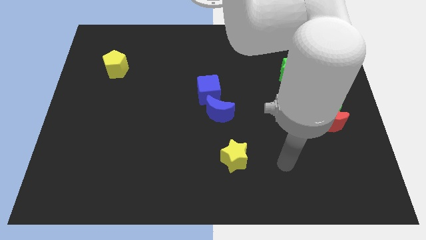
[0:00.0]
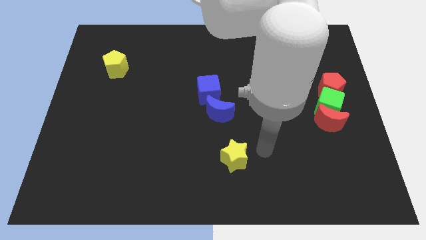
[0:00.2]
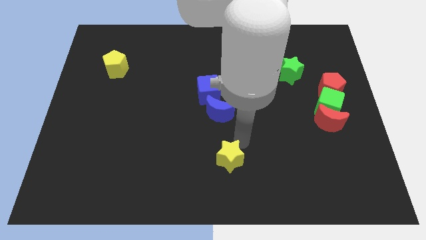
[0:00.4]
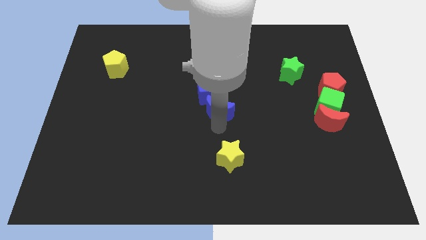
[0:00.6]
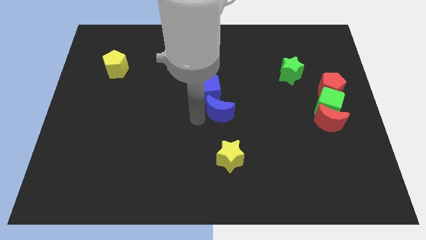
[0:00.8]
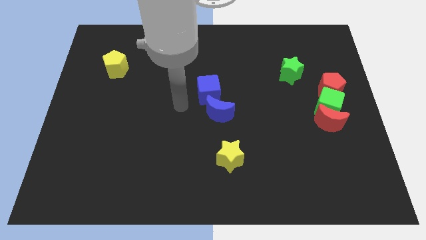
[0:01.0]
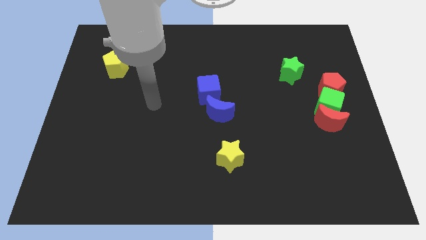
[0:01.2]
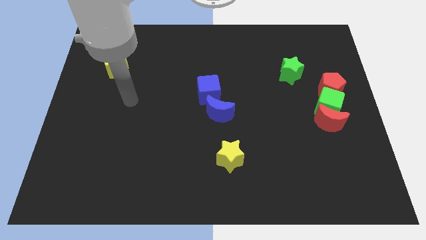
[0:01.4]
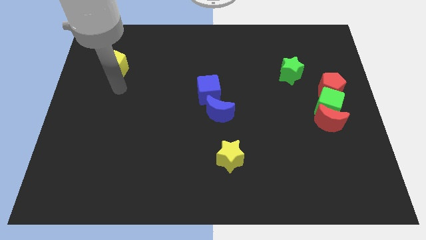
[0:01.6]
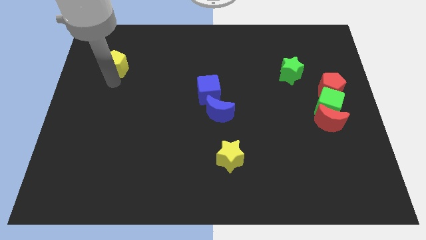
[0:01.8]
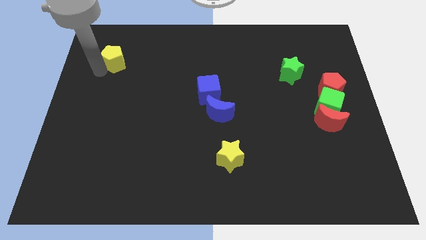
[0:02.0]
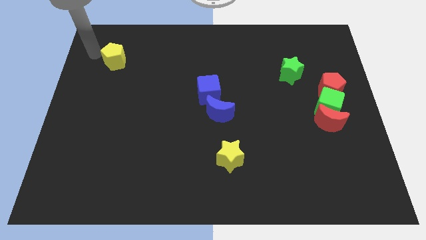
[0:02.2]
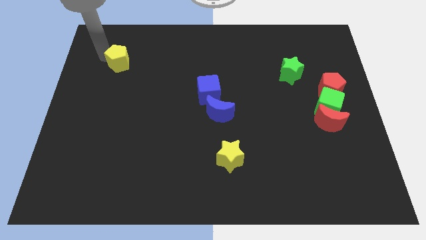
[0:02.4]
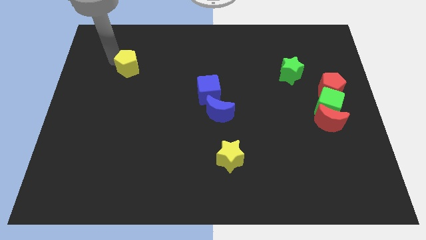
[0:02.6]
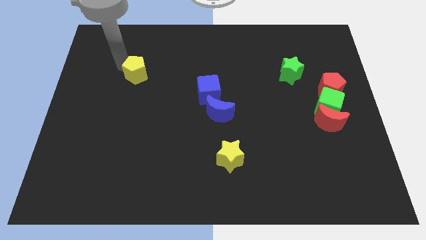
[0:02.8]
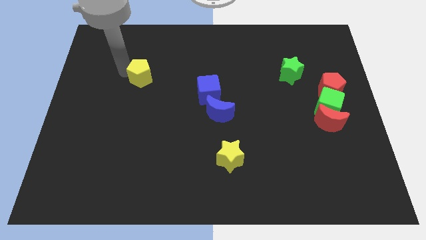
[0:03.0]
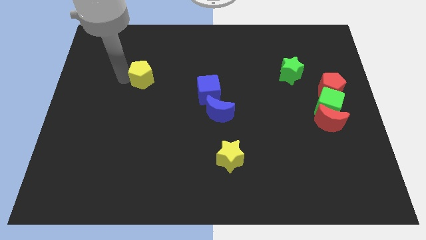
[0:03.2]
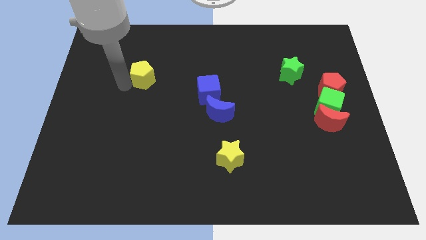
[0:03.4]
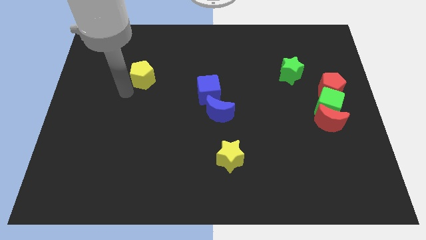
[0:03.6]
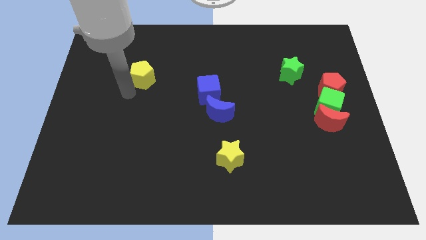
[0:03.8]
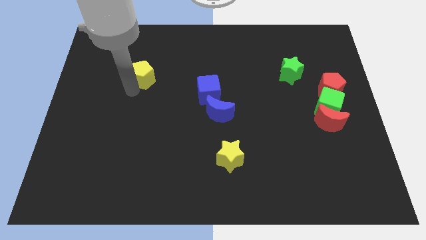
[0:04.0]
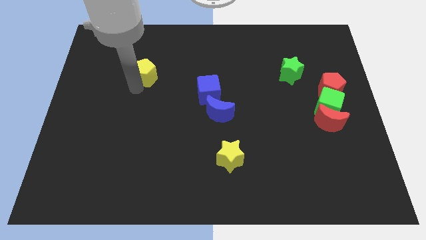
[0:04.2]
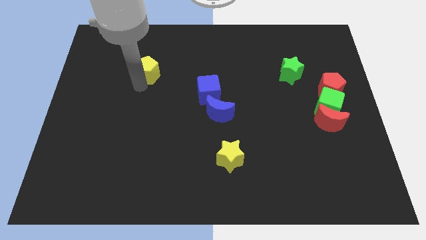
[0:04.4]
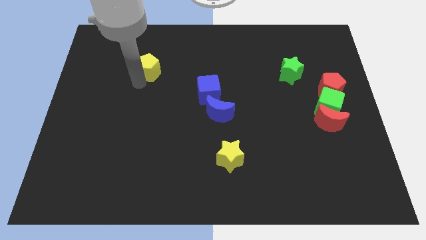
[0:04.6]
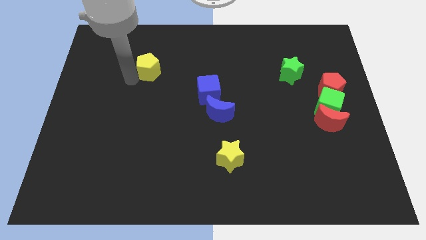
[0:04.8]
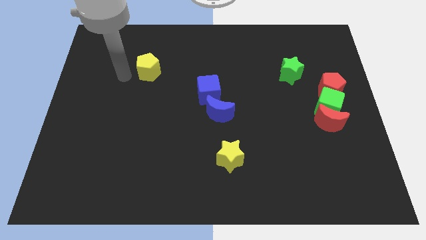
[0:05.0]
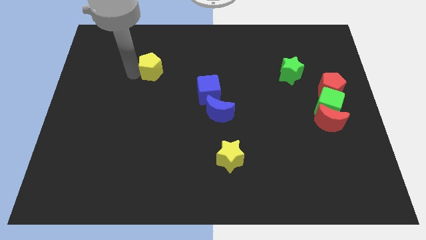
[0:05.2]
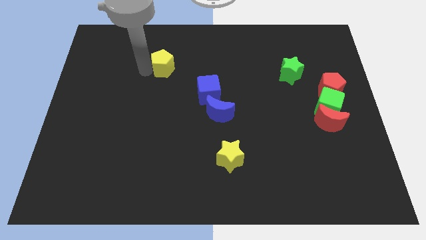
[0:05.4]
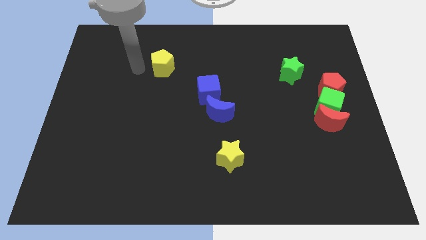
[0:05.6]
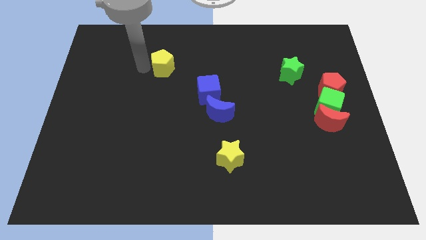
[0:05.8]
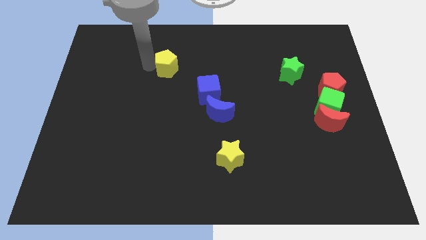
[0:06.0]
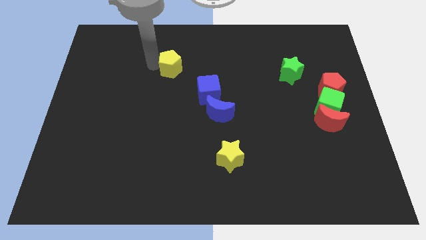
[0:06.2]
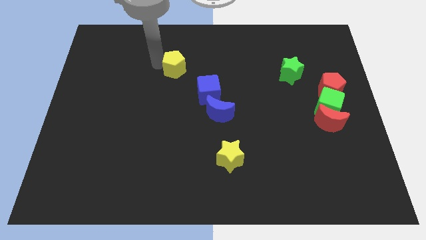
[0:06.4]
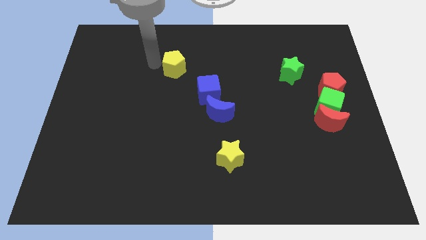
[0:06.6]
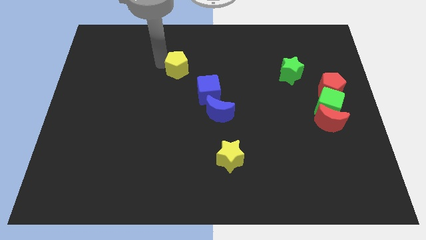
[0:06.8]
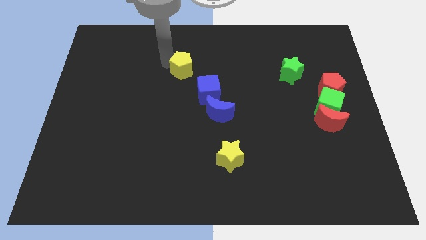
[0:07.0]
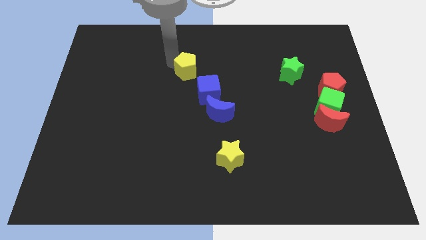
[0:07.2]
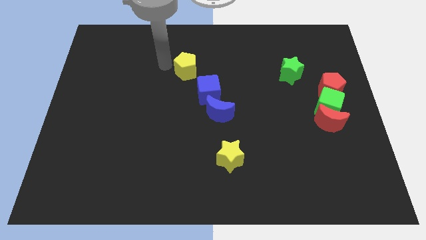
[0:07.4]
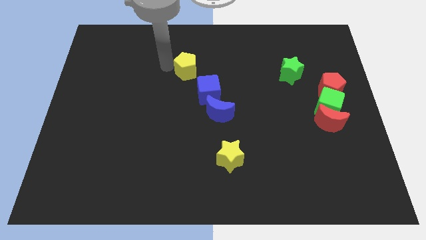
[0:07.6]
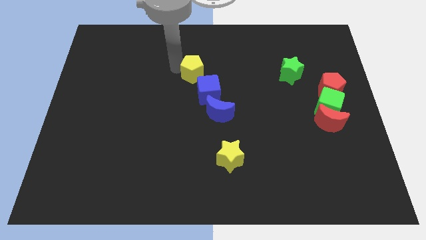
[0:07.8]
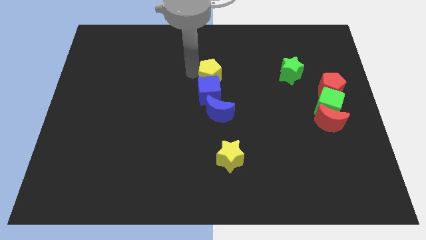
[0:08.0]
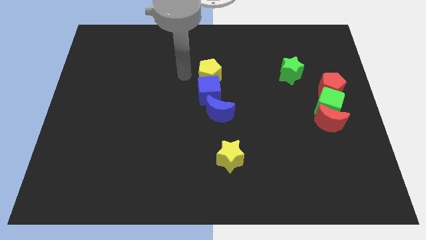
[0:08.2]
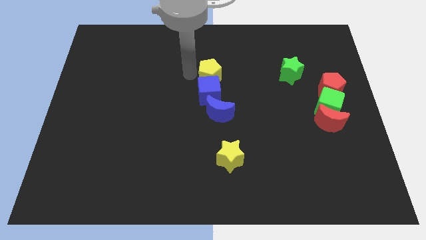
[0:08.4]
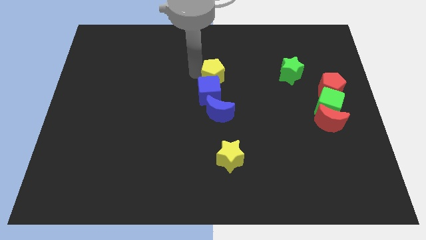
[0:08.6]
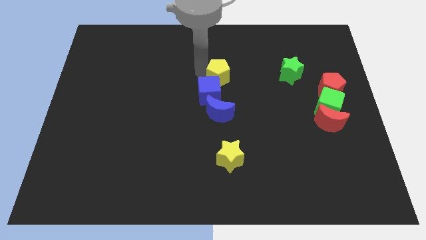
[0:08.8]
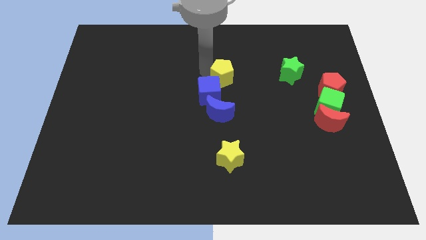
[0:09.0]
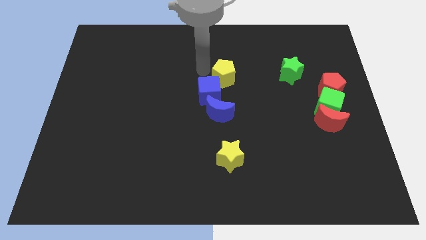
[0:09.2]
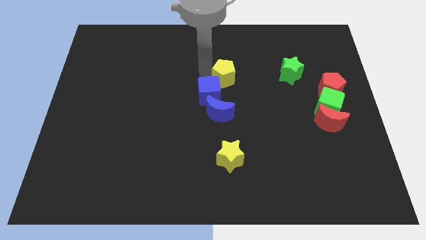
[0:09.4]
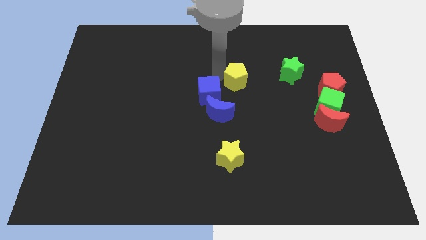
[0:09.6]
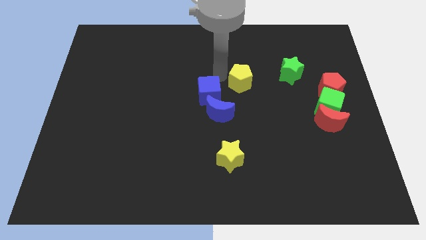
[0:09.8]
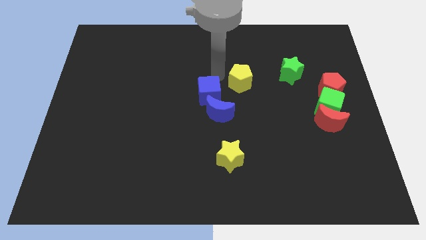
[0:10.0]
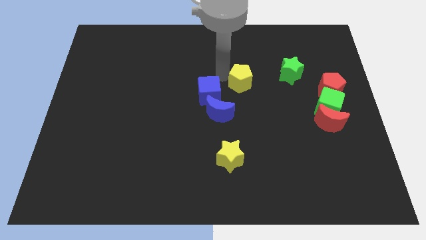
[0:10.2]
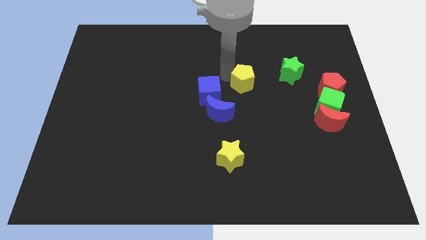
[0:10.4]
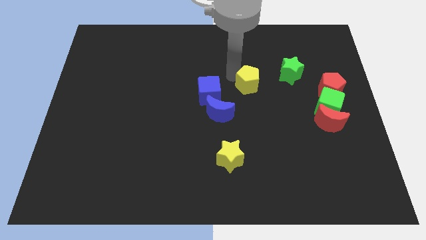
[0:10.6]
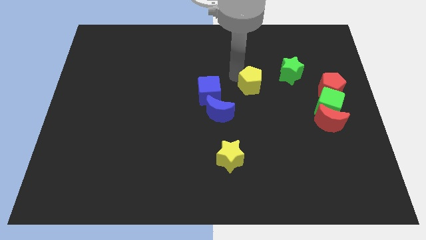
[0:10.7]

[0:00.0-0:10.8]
move the yellow pentagon to the bottom left side of the green star

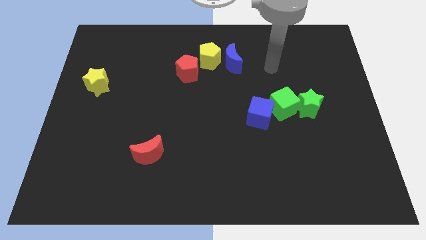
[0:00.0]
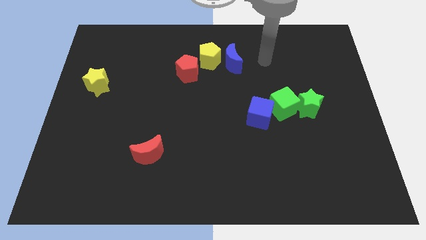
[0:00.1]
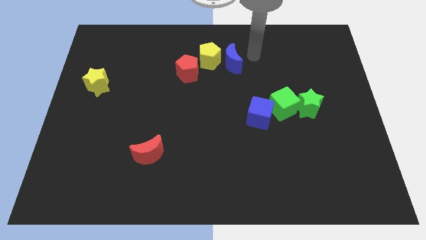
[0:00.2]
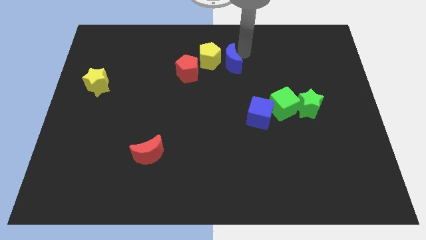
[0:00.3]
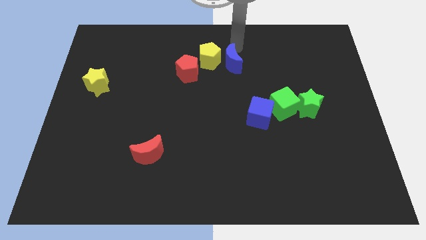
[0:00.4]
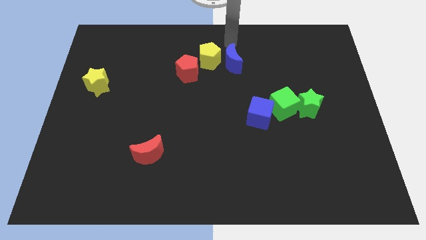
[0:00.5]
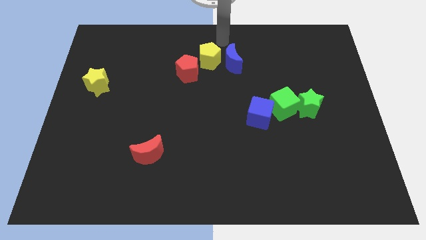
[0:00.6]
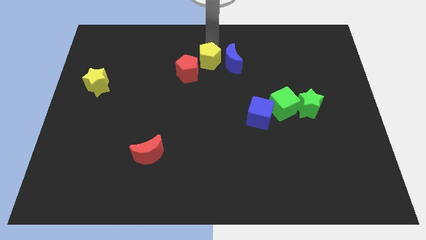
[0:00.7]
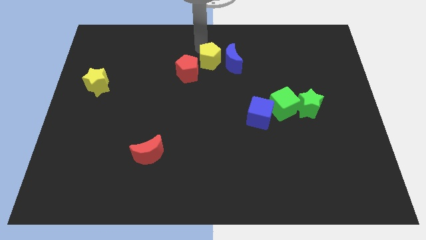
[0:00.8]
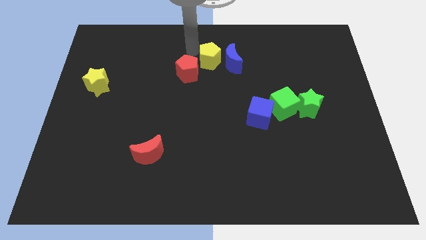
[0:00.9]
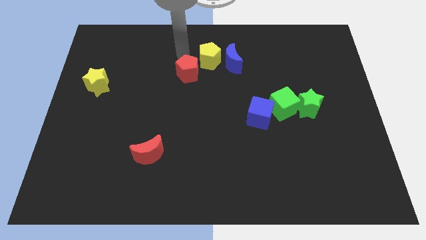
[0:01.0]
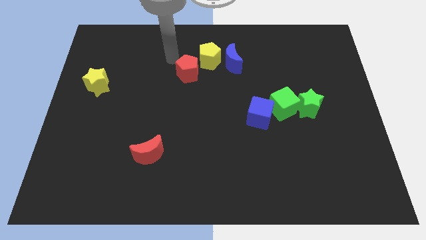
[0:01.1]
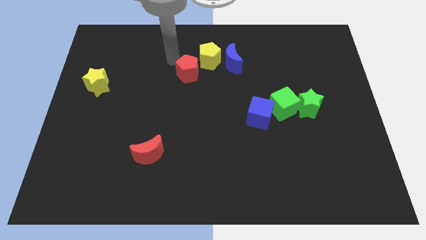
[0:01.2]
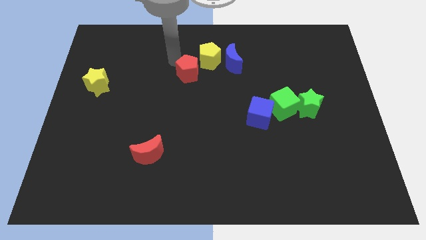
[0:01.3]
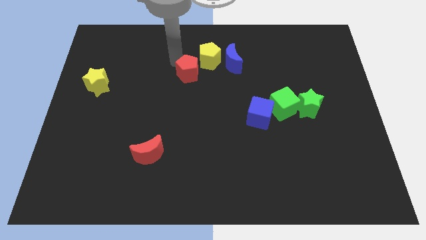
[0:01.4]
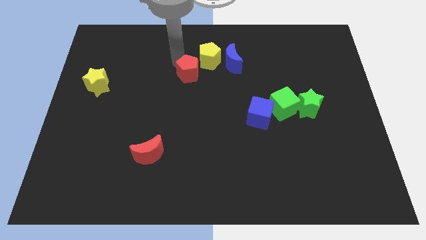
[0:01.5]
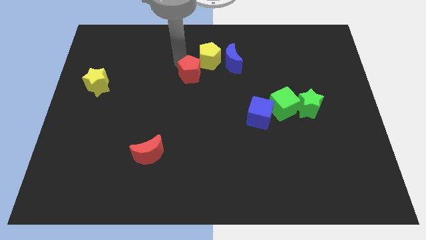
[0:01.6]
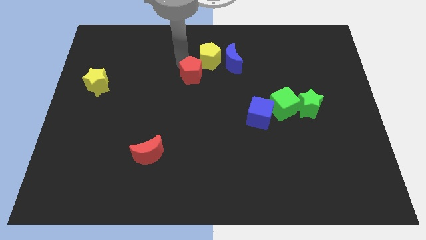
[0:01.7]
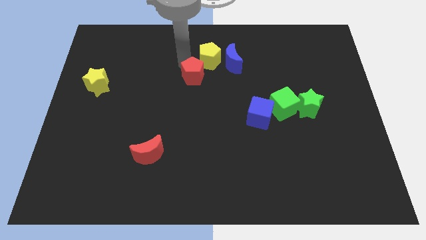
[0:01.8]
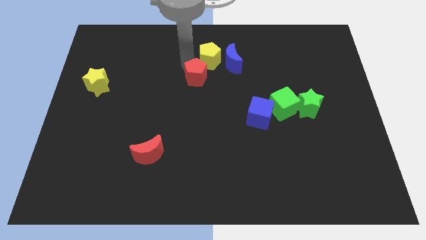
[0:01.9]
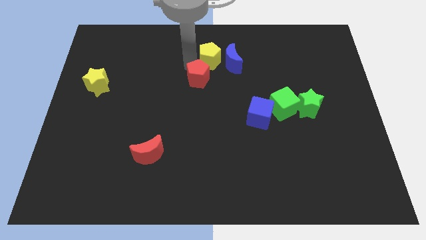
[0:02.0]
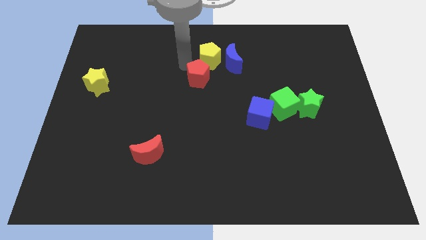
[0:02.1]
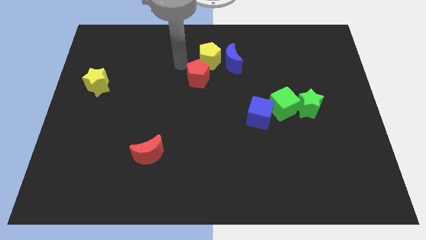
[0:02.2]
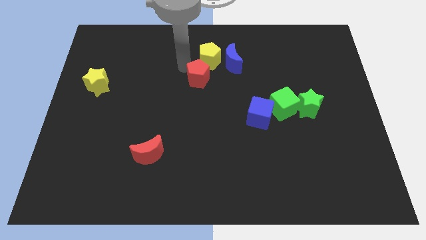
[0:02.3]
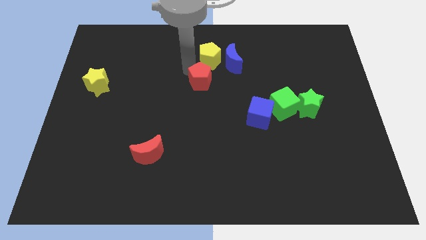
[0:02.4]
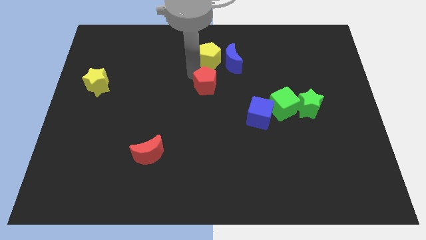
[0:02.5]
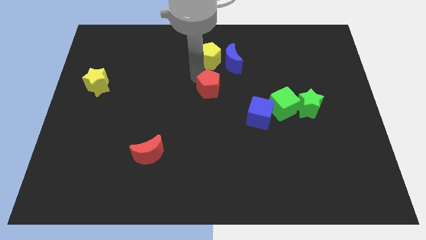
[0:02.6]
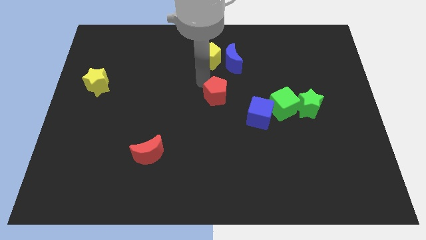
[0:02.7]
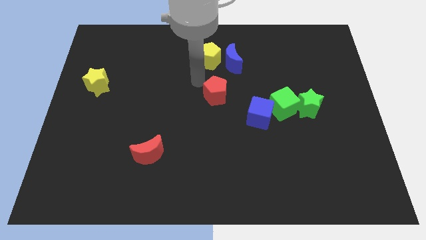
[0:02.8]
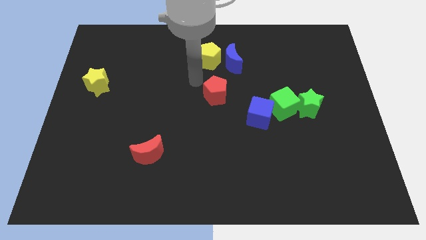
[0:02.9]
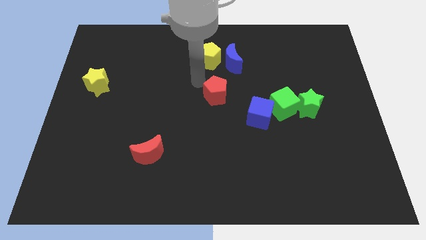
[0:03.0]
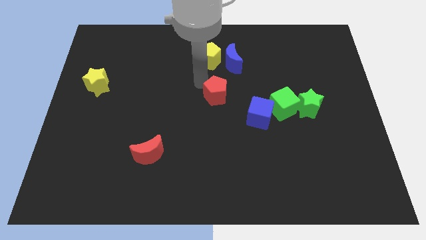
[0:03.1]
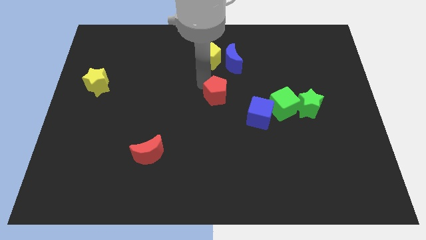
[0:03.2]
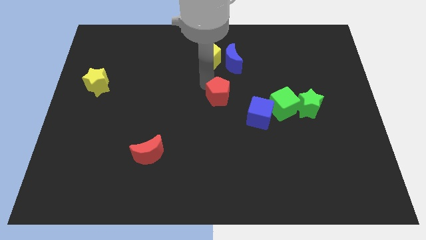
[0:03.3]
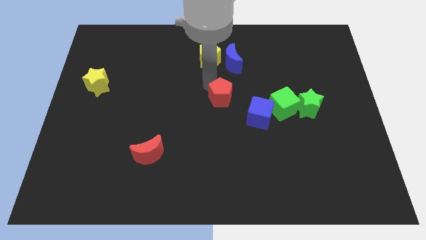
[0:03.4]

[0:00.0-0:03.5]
slide the red pentagon left of the green cube
